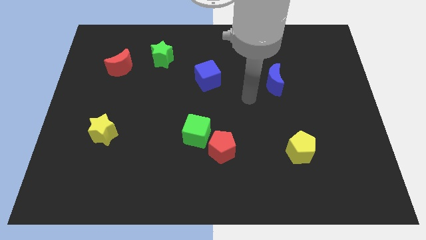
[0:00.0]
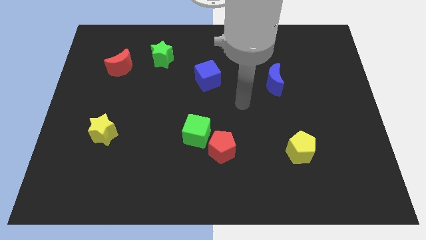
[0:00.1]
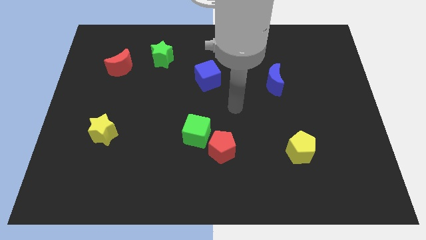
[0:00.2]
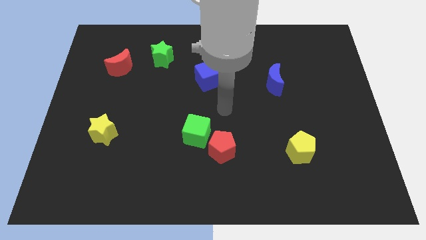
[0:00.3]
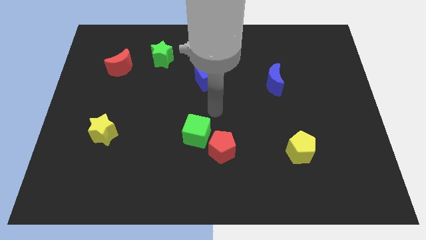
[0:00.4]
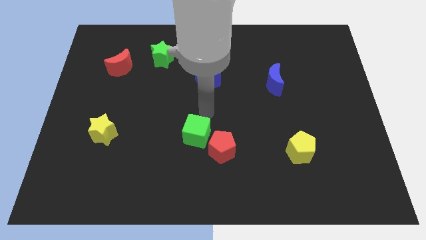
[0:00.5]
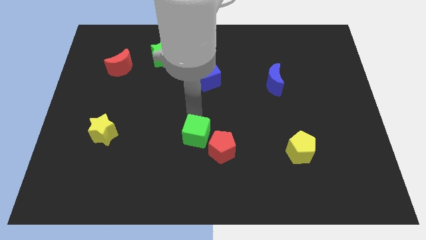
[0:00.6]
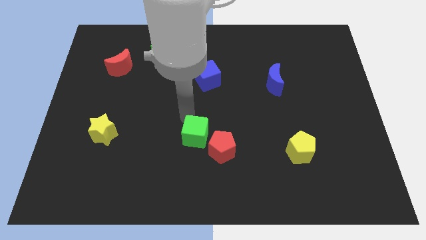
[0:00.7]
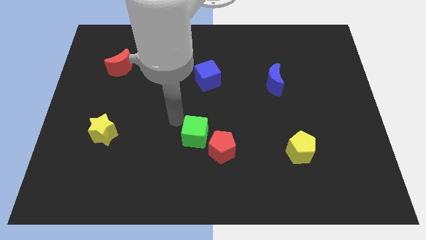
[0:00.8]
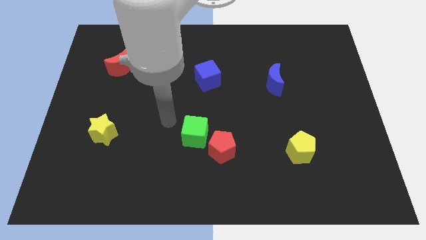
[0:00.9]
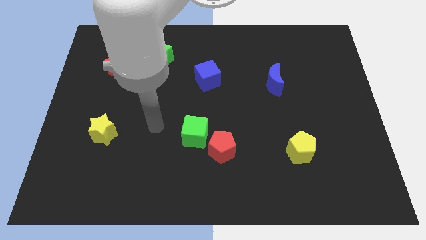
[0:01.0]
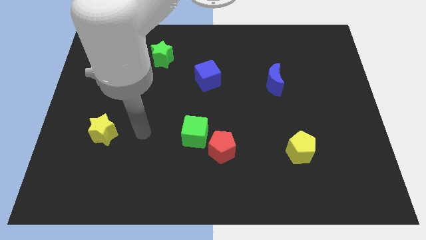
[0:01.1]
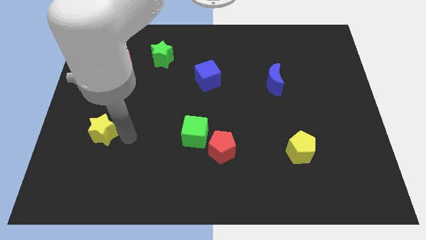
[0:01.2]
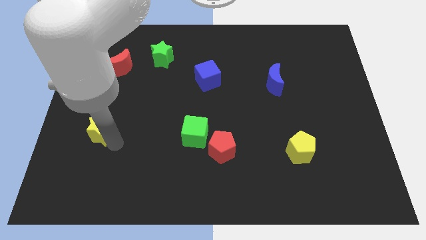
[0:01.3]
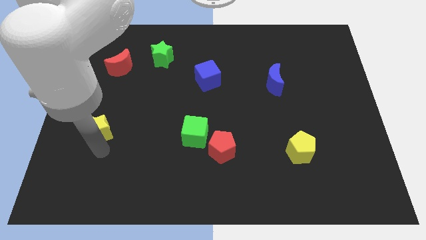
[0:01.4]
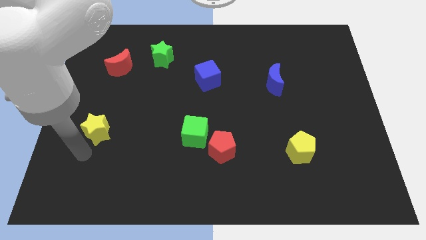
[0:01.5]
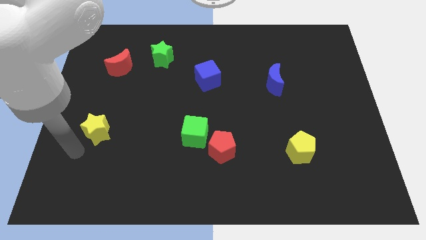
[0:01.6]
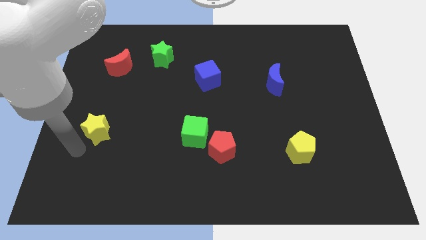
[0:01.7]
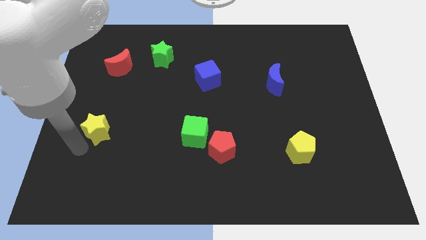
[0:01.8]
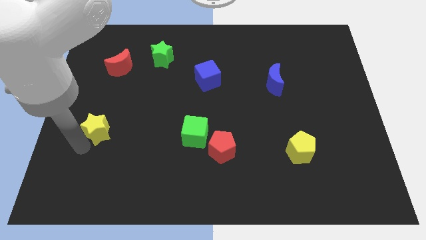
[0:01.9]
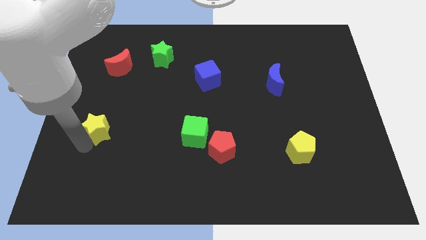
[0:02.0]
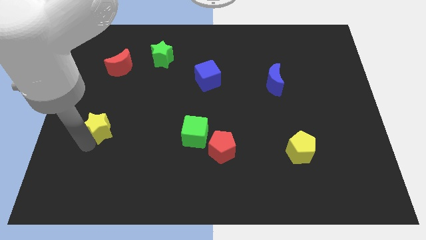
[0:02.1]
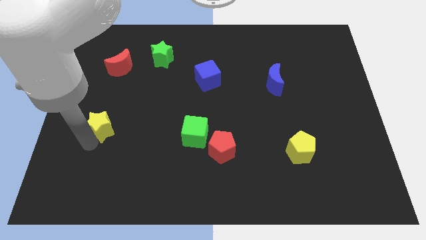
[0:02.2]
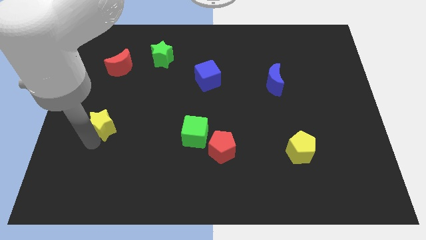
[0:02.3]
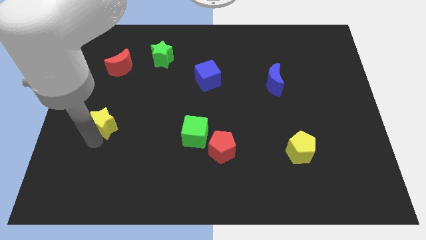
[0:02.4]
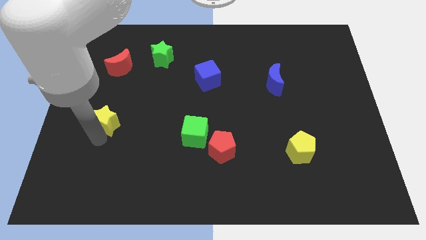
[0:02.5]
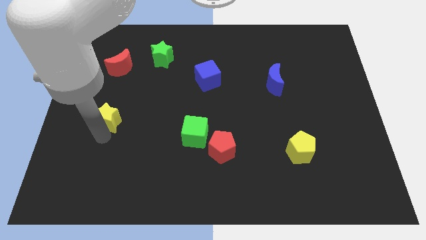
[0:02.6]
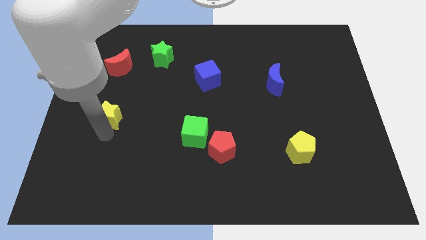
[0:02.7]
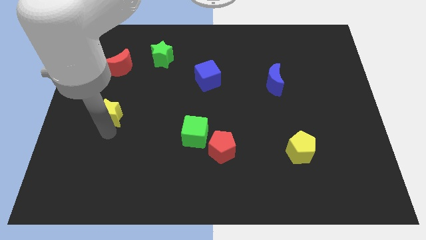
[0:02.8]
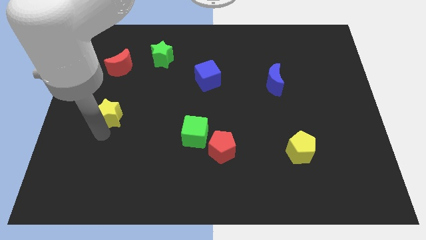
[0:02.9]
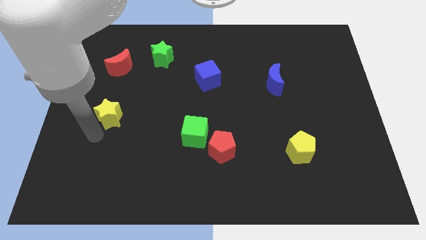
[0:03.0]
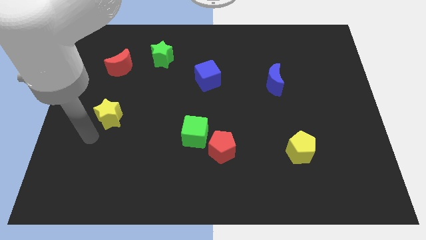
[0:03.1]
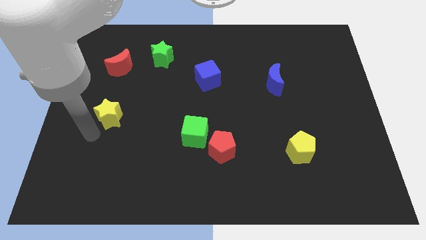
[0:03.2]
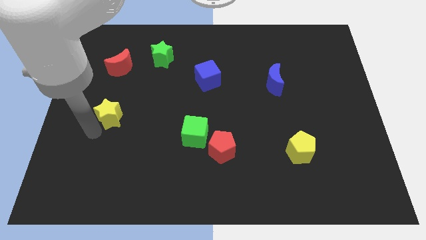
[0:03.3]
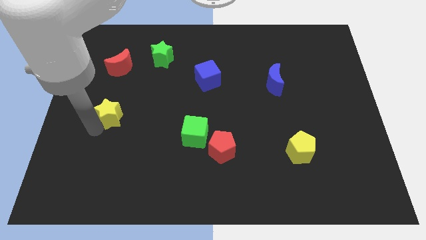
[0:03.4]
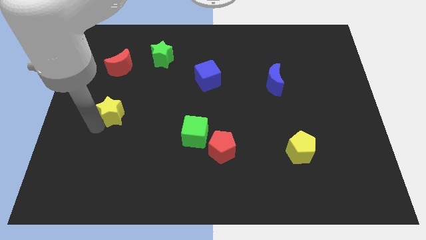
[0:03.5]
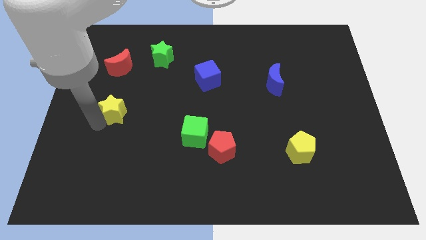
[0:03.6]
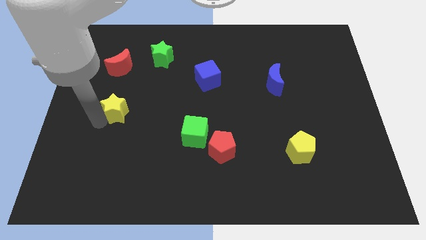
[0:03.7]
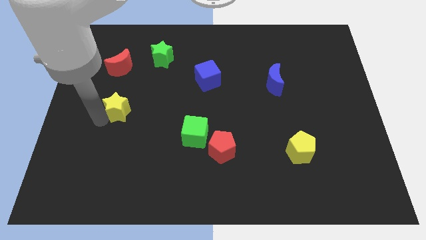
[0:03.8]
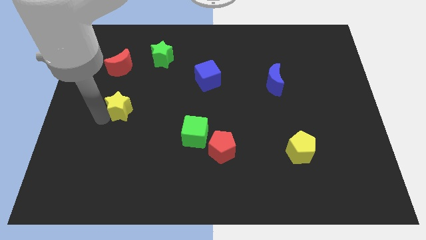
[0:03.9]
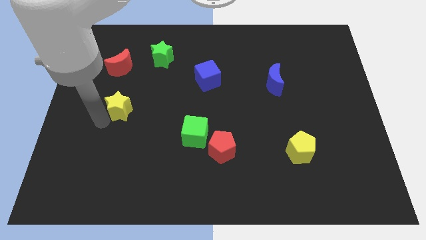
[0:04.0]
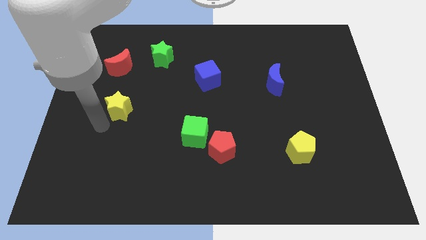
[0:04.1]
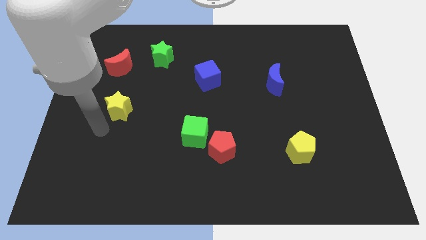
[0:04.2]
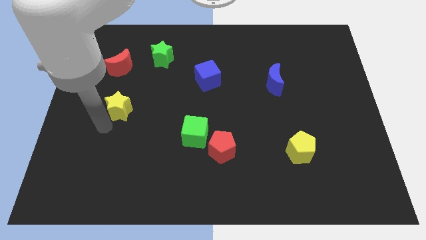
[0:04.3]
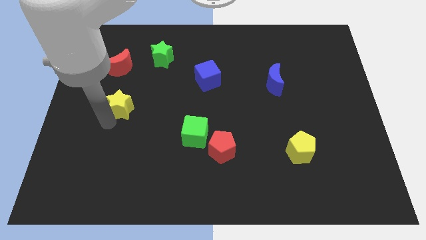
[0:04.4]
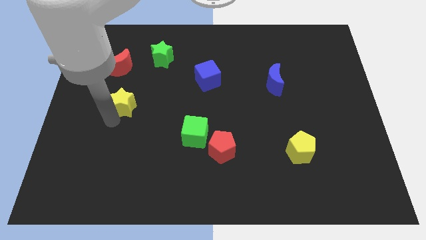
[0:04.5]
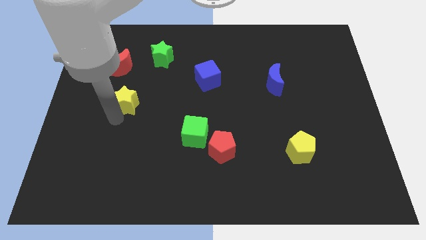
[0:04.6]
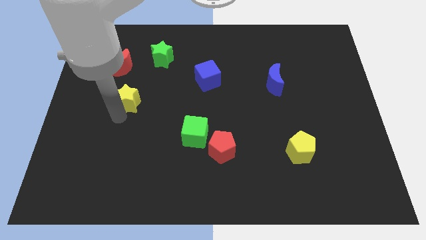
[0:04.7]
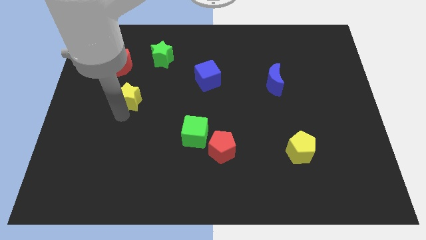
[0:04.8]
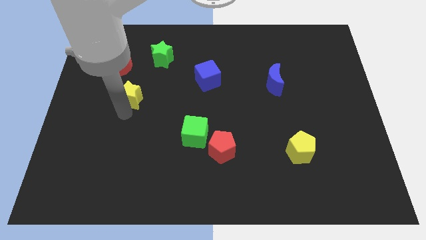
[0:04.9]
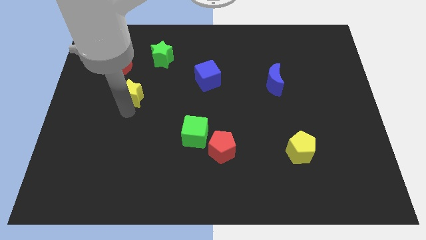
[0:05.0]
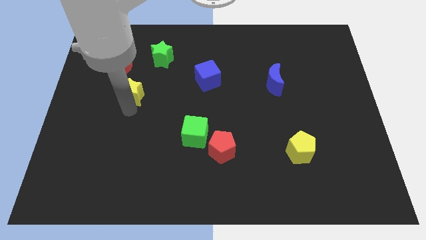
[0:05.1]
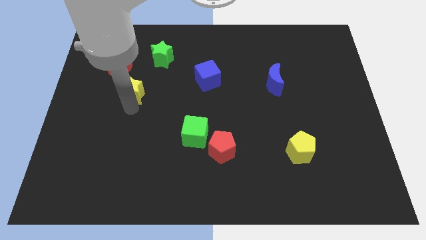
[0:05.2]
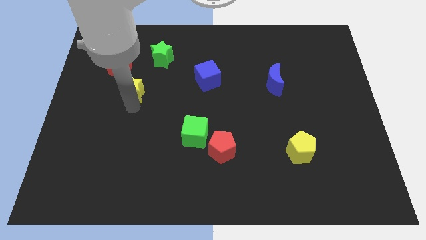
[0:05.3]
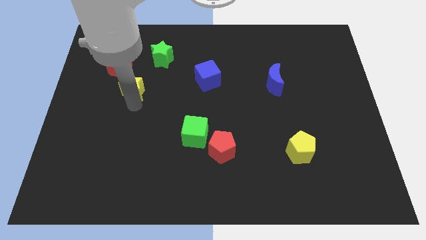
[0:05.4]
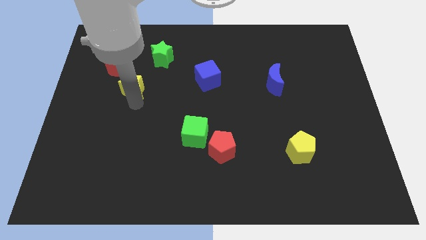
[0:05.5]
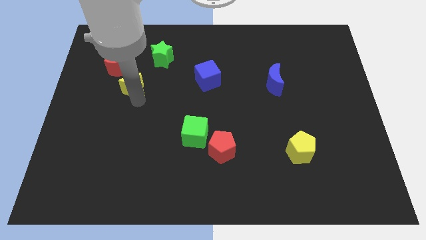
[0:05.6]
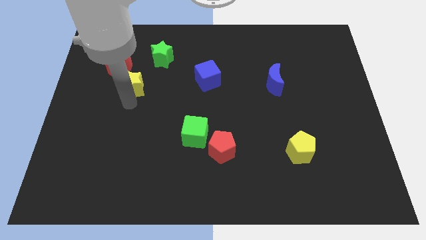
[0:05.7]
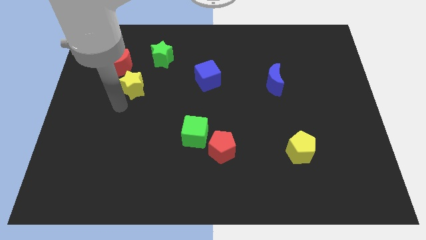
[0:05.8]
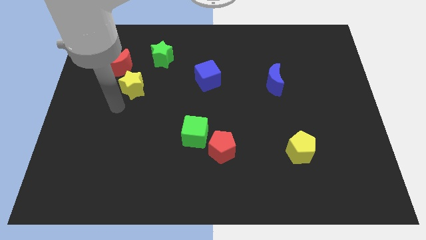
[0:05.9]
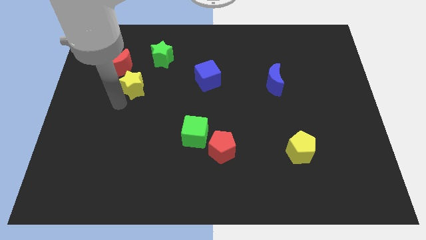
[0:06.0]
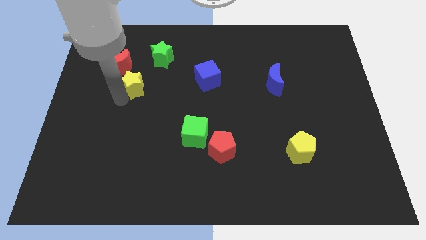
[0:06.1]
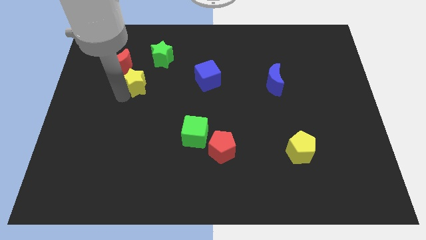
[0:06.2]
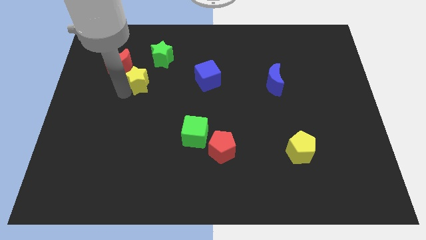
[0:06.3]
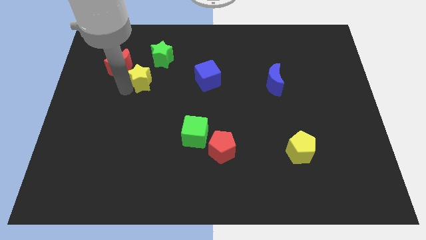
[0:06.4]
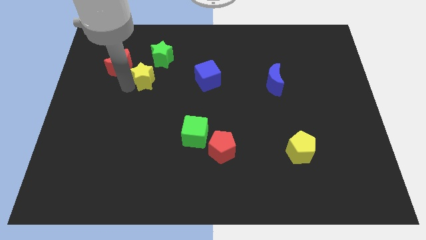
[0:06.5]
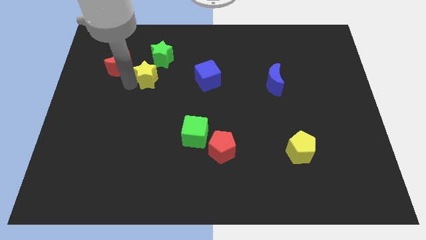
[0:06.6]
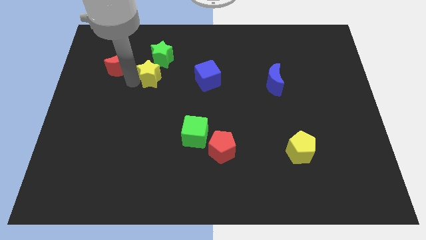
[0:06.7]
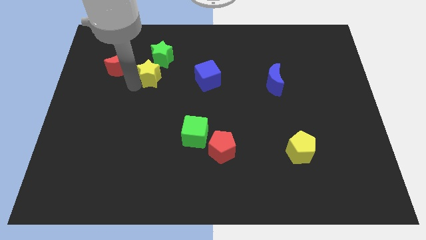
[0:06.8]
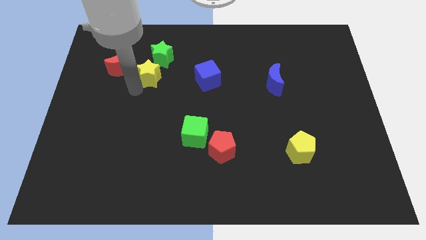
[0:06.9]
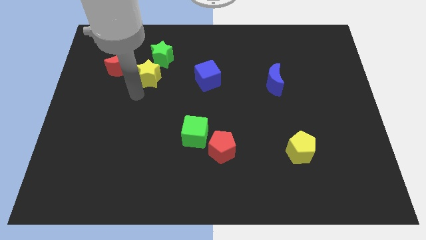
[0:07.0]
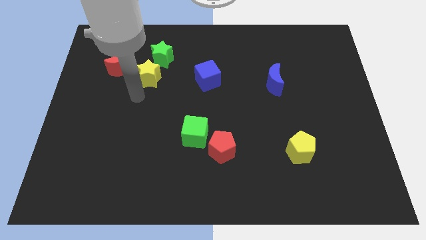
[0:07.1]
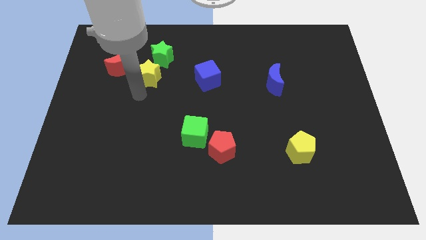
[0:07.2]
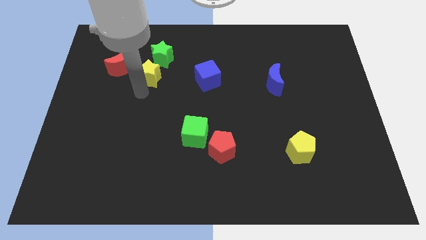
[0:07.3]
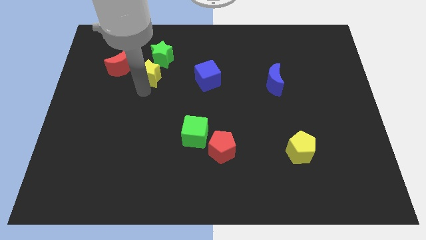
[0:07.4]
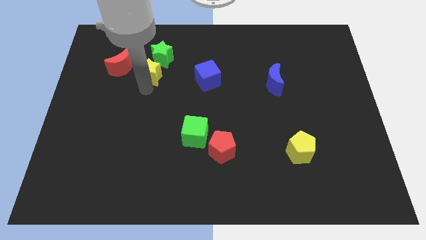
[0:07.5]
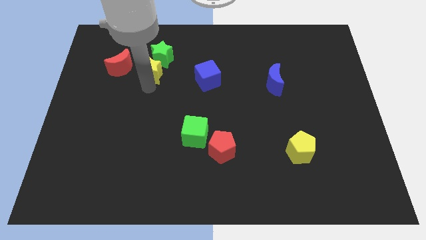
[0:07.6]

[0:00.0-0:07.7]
push the yellow star next to the green star

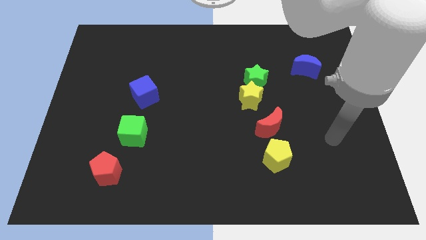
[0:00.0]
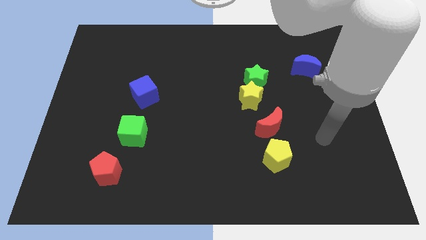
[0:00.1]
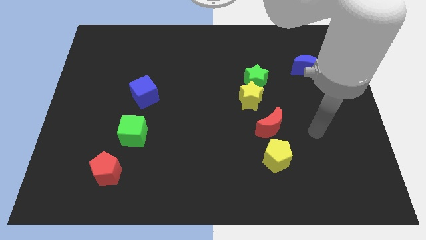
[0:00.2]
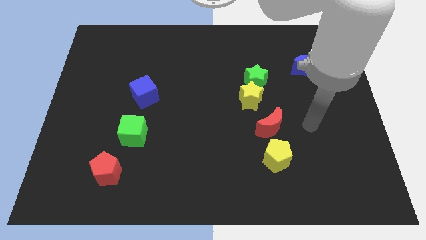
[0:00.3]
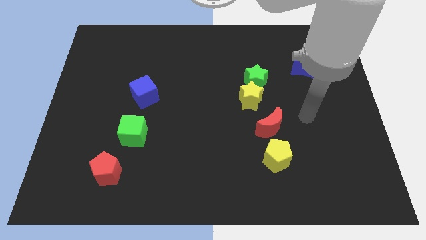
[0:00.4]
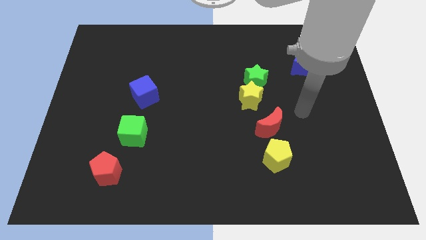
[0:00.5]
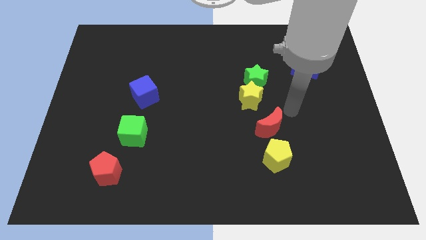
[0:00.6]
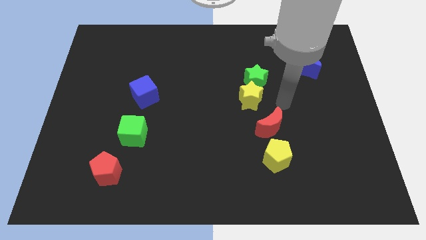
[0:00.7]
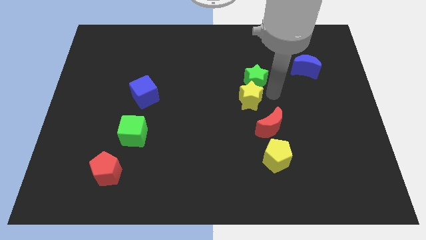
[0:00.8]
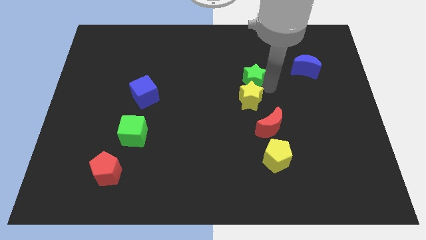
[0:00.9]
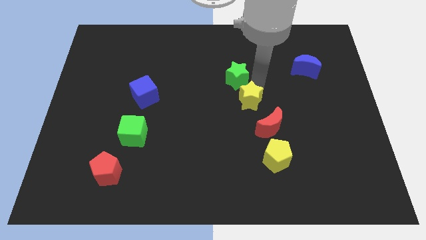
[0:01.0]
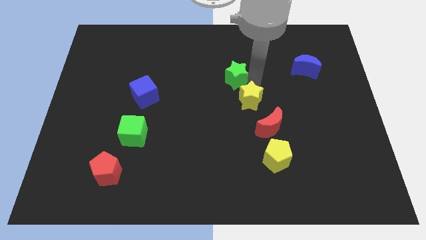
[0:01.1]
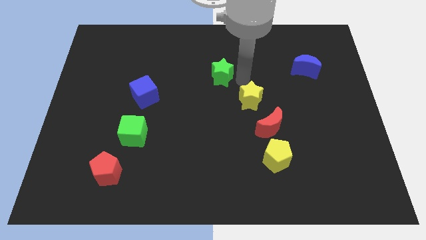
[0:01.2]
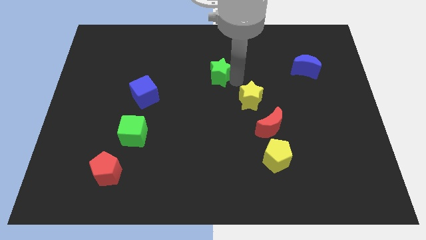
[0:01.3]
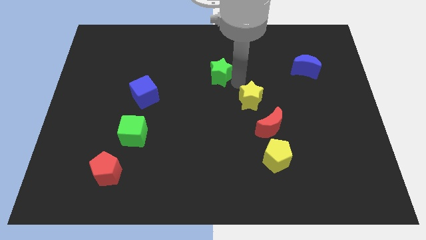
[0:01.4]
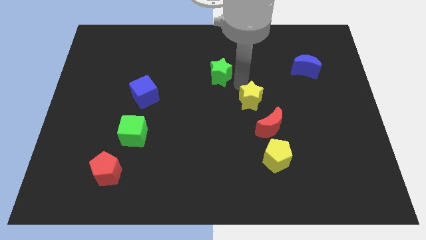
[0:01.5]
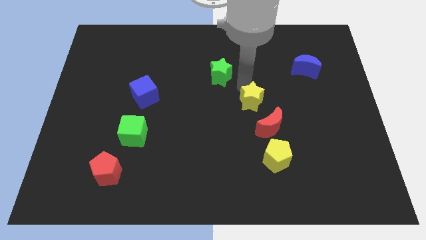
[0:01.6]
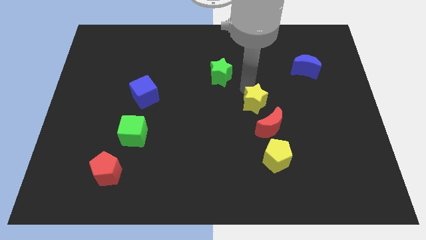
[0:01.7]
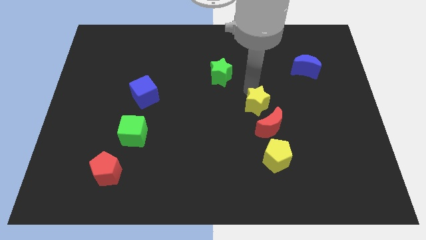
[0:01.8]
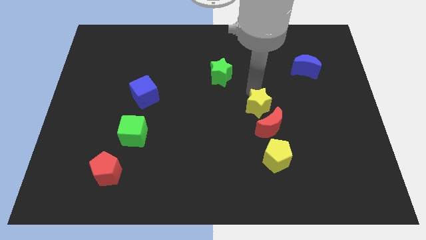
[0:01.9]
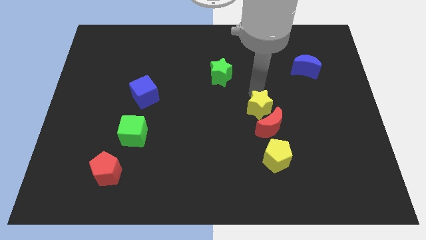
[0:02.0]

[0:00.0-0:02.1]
put the yellow star to the red moon
